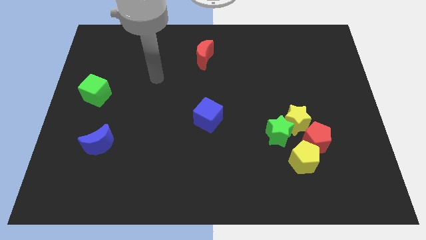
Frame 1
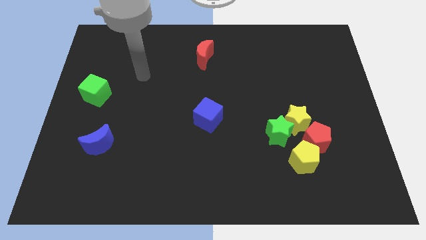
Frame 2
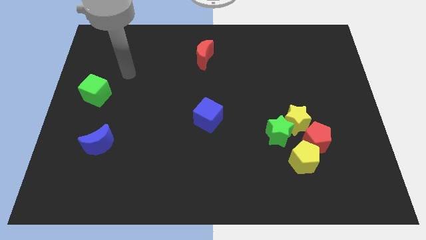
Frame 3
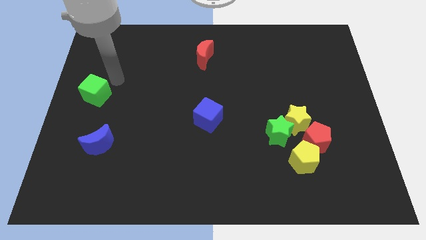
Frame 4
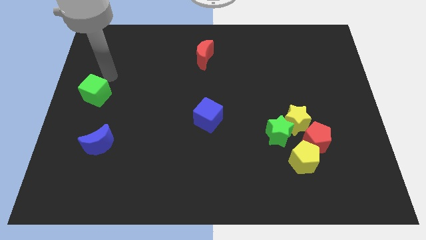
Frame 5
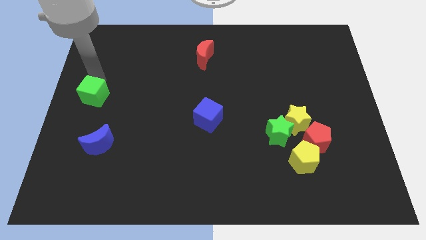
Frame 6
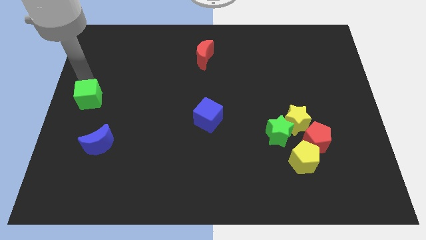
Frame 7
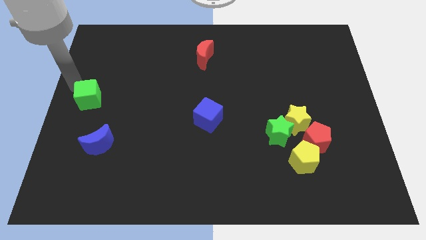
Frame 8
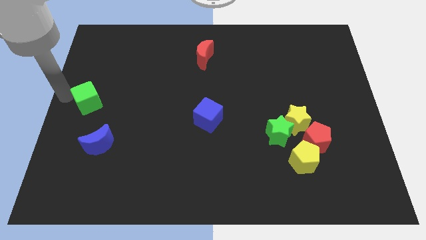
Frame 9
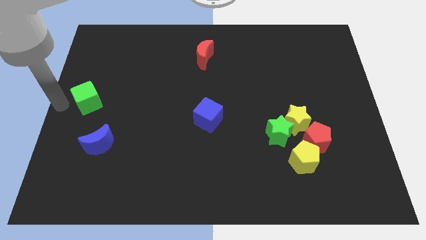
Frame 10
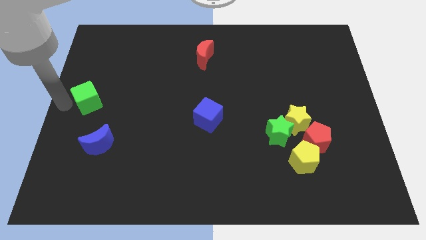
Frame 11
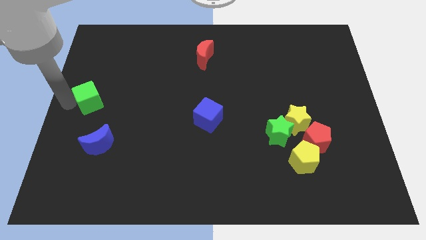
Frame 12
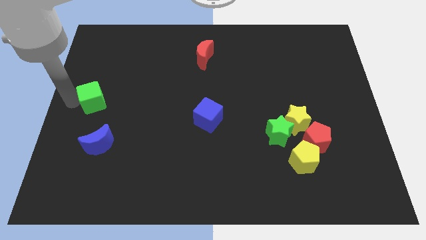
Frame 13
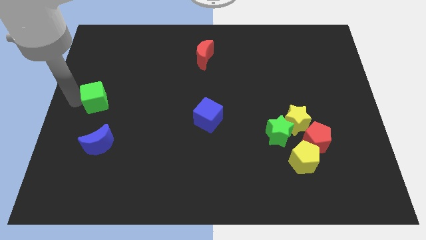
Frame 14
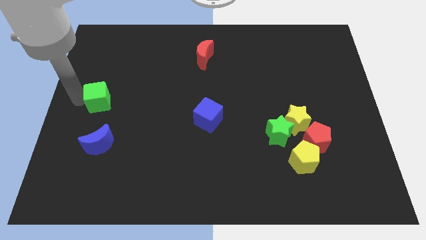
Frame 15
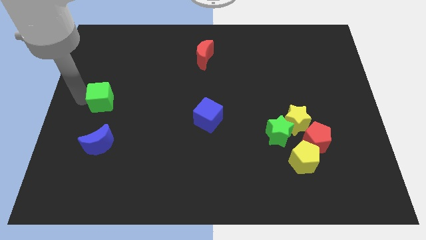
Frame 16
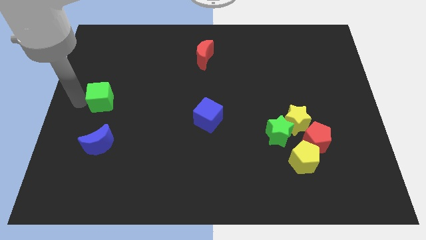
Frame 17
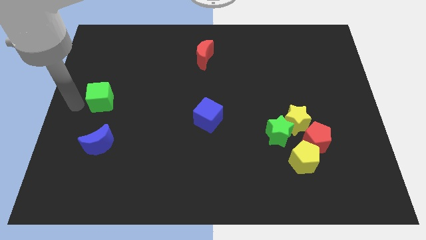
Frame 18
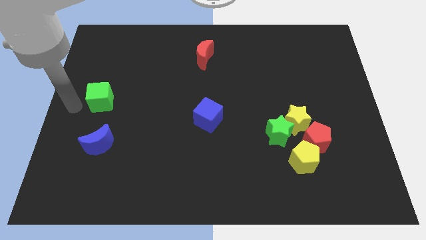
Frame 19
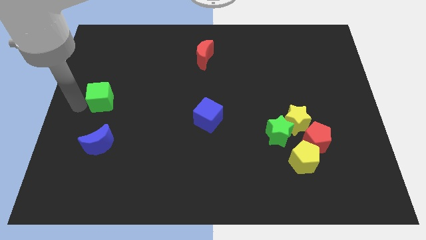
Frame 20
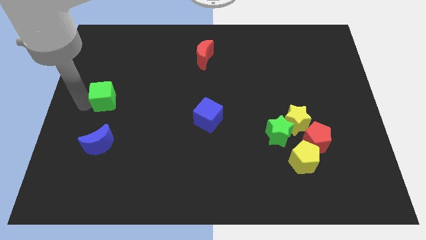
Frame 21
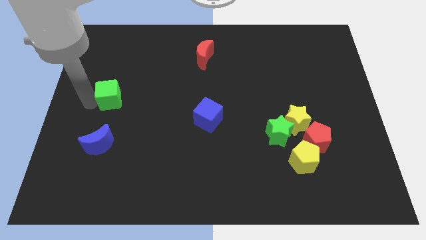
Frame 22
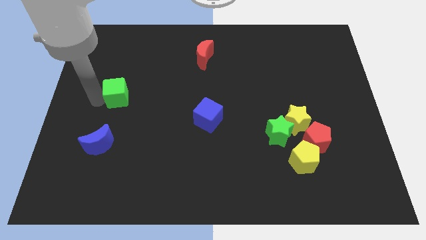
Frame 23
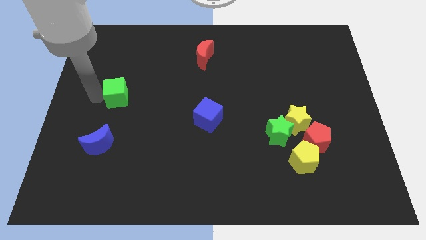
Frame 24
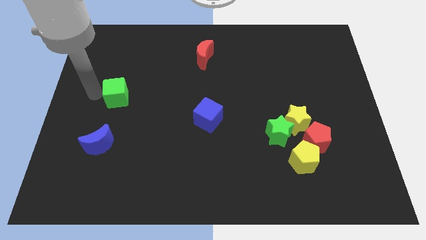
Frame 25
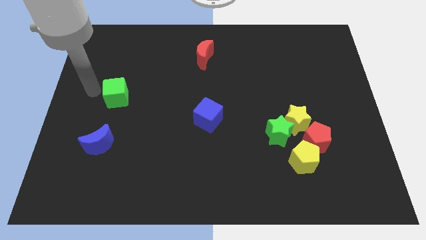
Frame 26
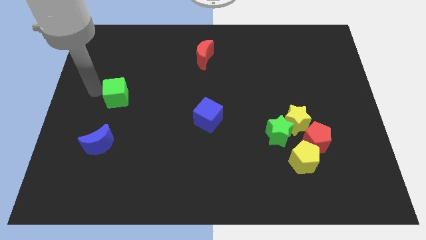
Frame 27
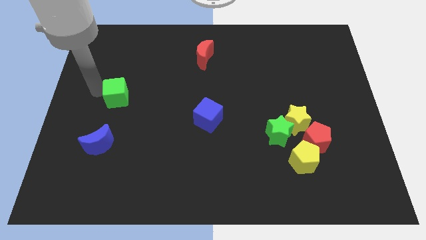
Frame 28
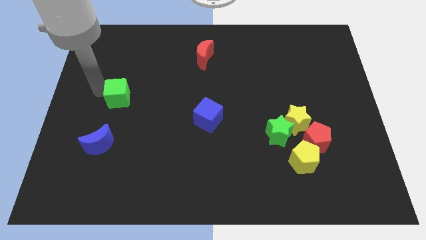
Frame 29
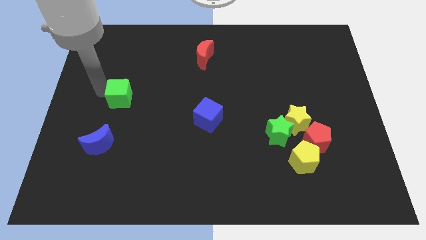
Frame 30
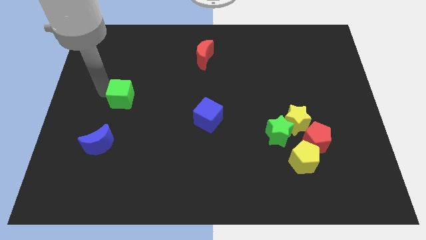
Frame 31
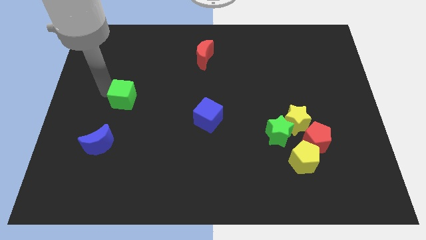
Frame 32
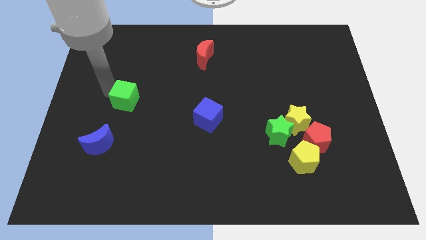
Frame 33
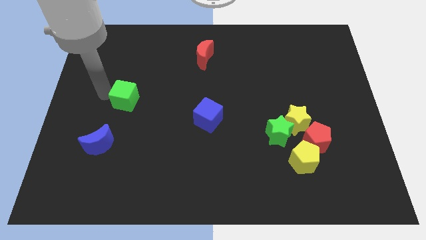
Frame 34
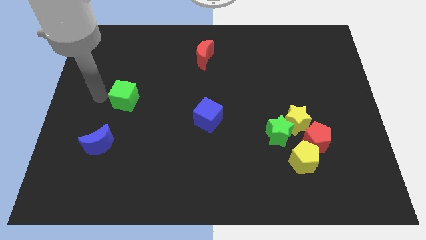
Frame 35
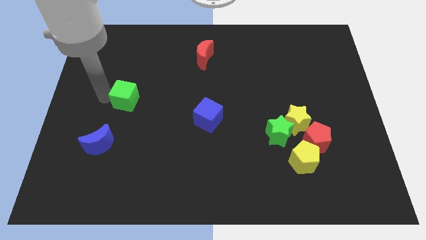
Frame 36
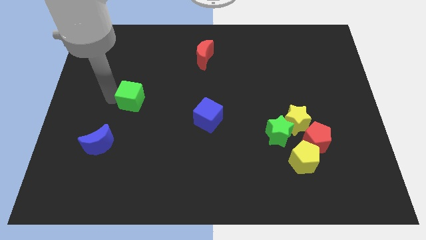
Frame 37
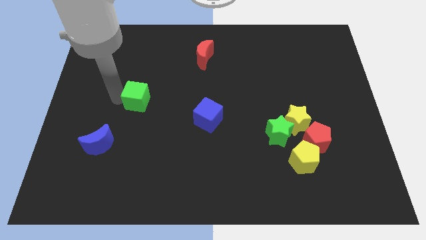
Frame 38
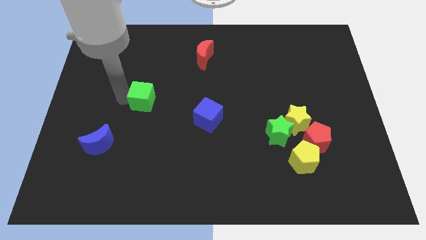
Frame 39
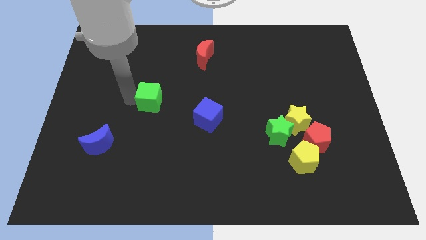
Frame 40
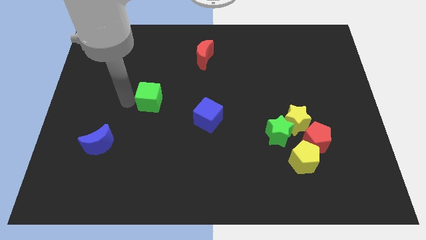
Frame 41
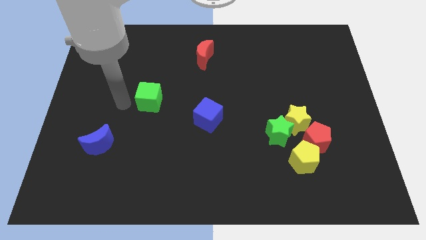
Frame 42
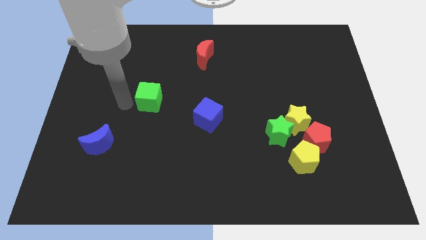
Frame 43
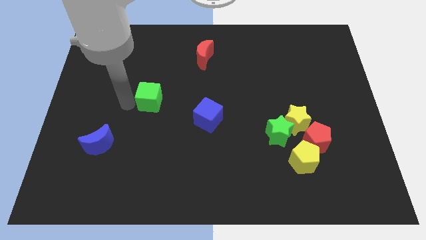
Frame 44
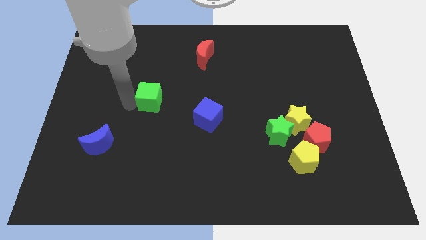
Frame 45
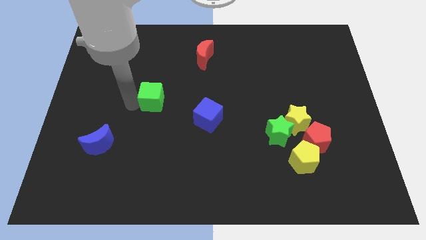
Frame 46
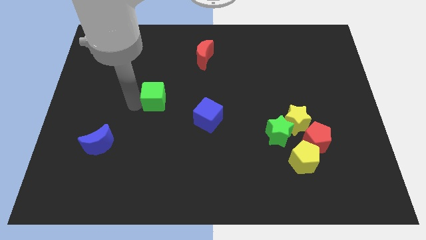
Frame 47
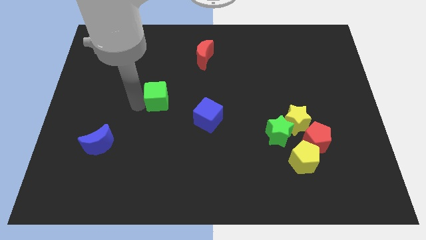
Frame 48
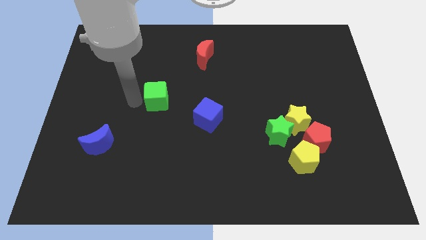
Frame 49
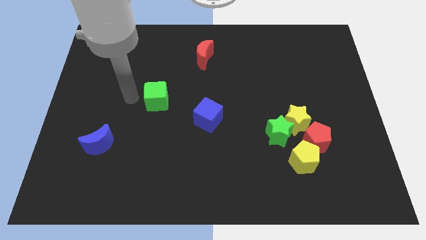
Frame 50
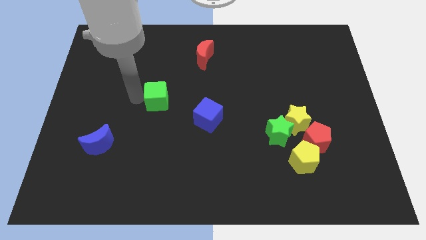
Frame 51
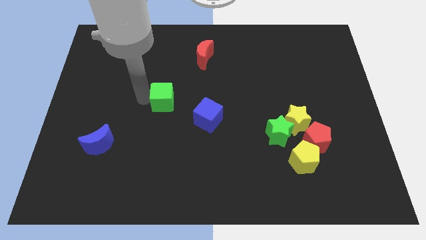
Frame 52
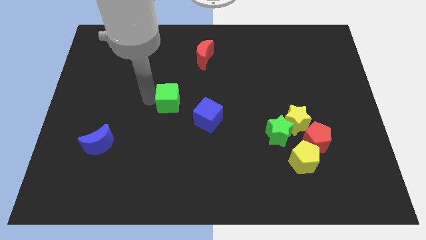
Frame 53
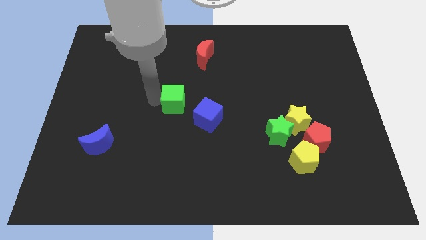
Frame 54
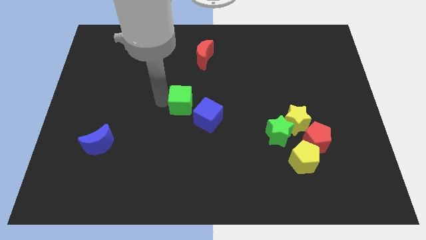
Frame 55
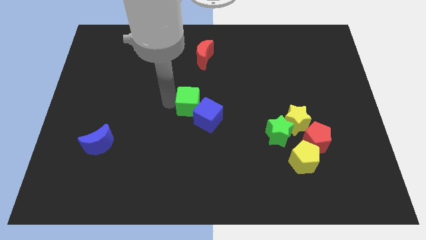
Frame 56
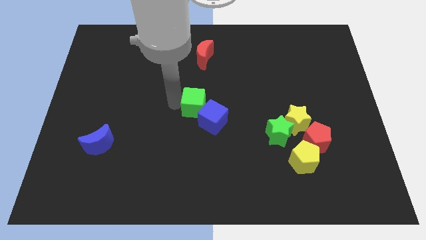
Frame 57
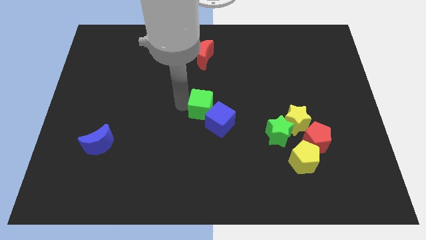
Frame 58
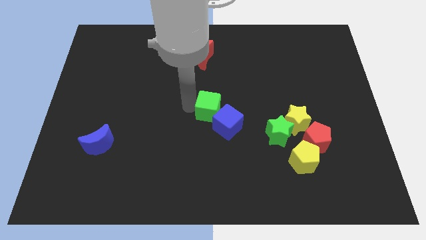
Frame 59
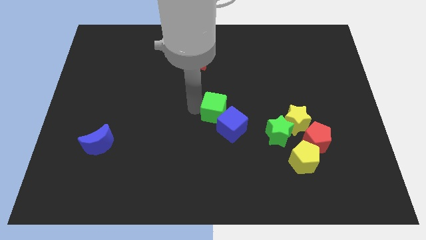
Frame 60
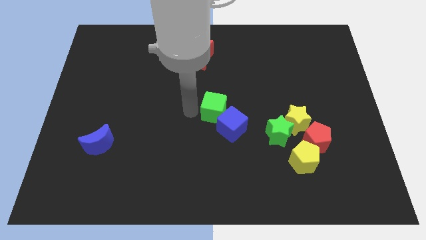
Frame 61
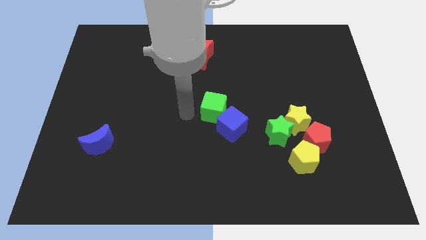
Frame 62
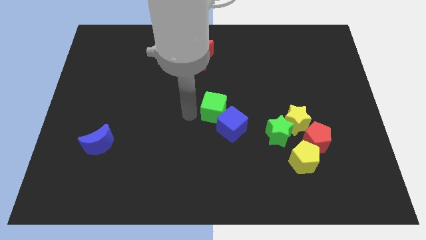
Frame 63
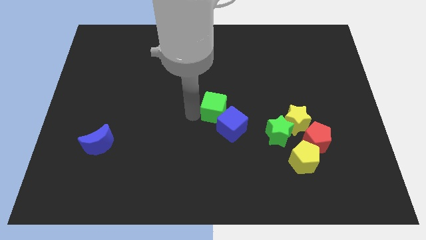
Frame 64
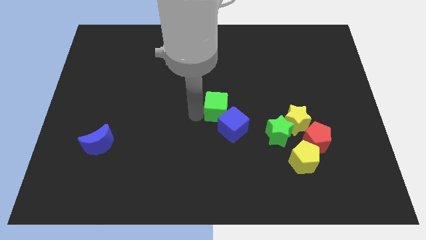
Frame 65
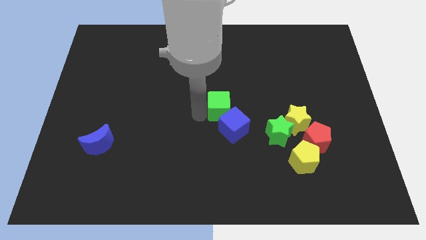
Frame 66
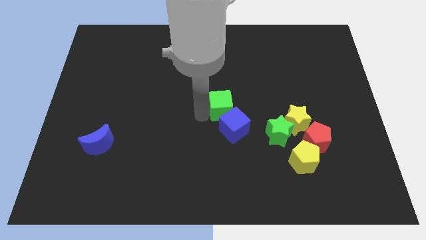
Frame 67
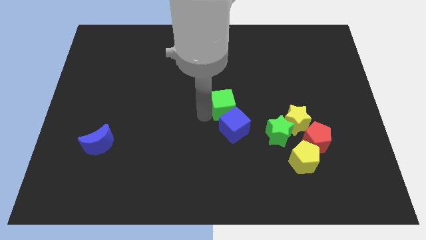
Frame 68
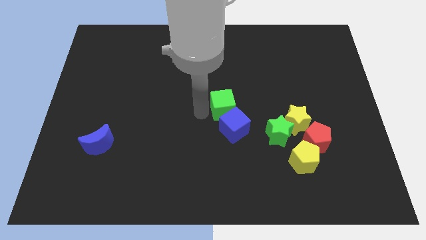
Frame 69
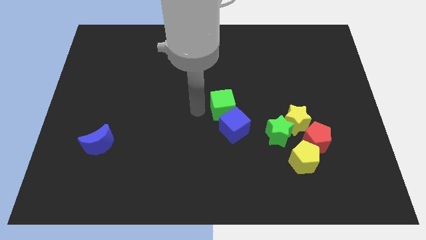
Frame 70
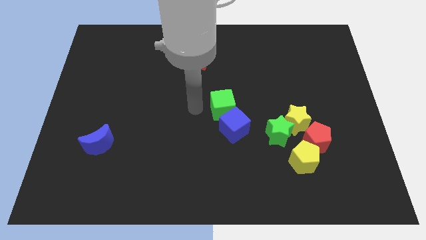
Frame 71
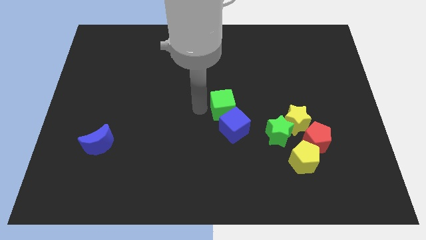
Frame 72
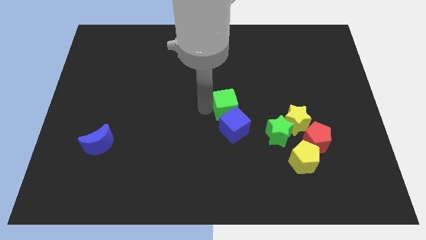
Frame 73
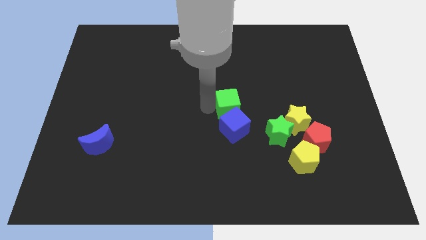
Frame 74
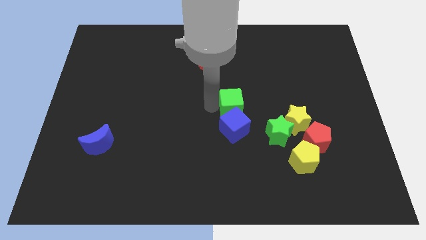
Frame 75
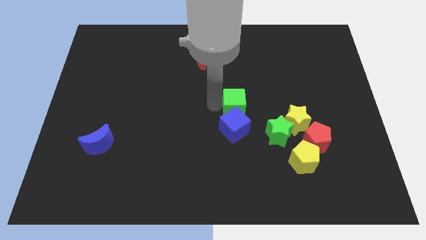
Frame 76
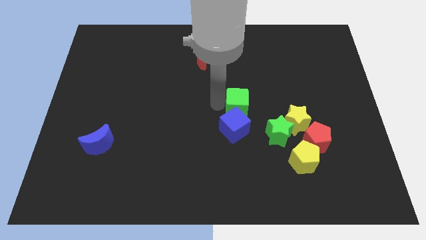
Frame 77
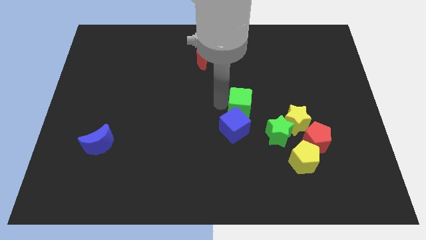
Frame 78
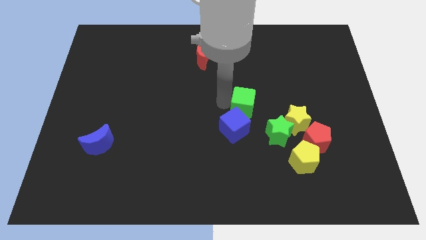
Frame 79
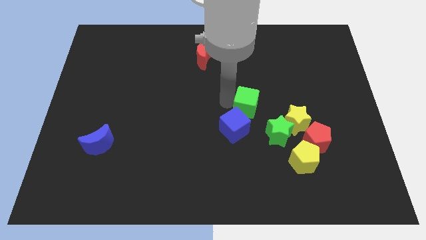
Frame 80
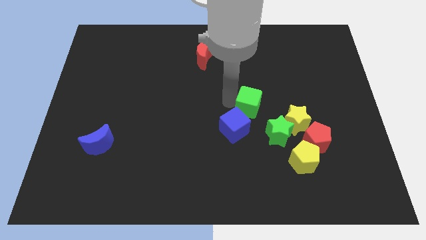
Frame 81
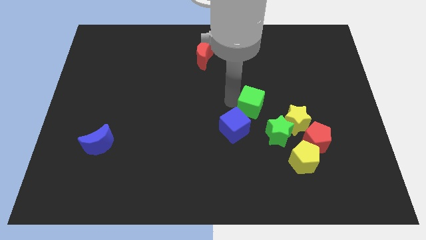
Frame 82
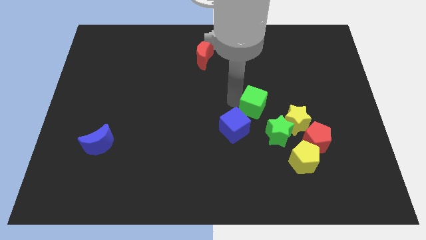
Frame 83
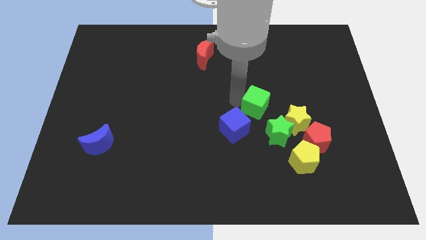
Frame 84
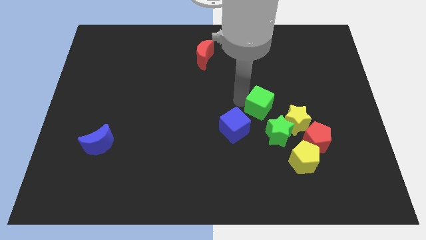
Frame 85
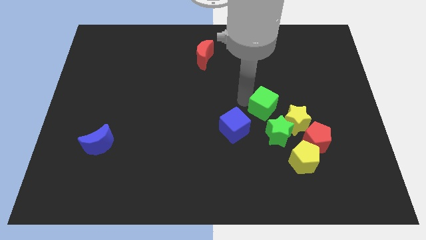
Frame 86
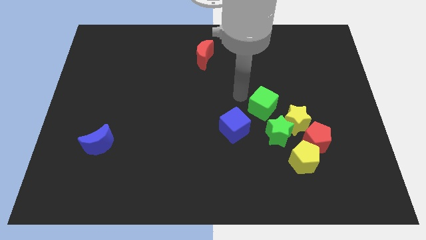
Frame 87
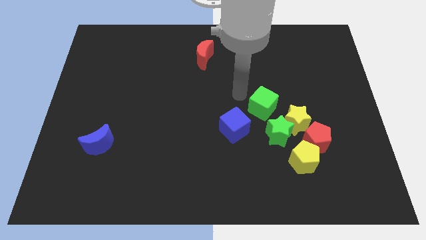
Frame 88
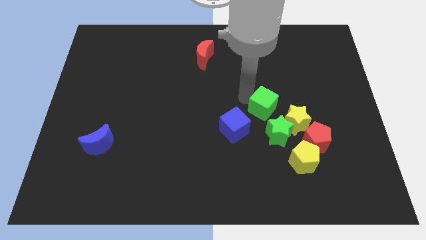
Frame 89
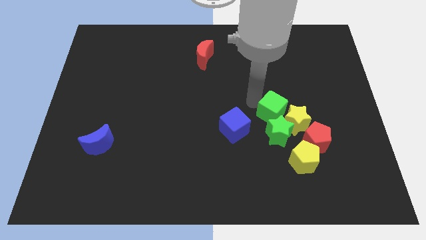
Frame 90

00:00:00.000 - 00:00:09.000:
put the green cube close to the yellow star
